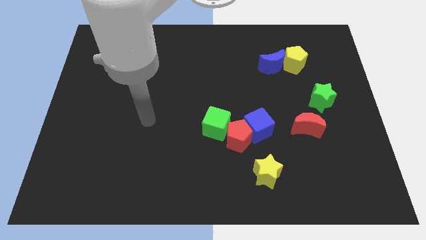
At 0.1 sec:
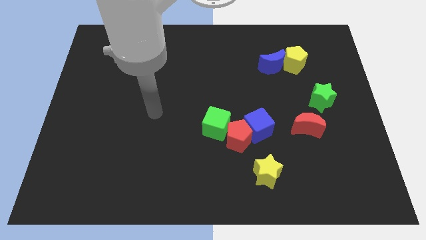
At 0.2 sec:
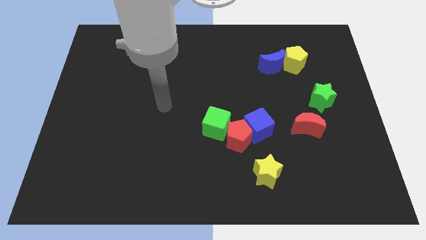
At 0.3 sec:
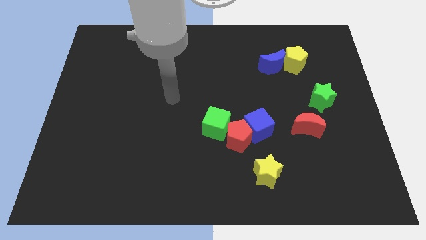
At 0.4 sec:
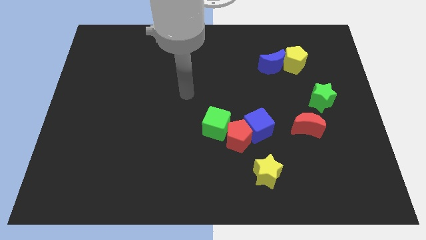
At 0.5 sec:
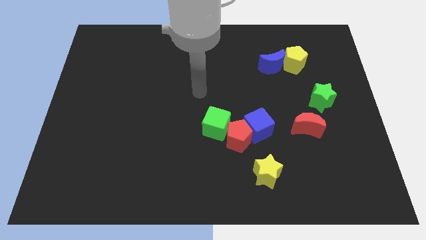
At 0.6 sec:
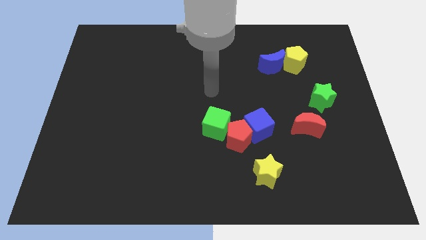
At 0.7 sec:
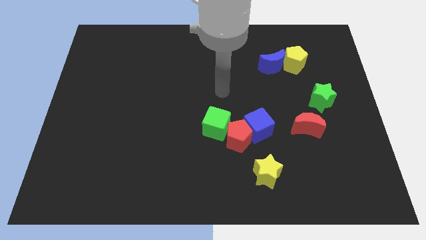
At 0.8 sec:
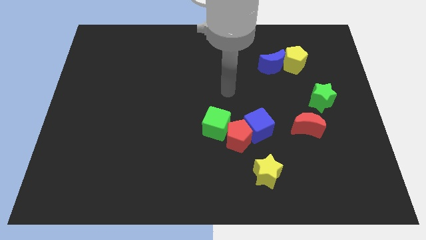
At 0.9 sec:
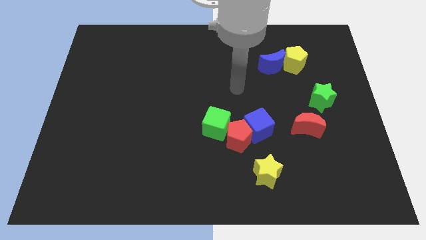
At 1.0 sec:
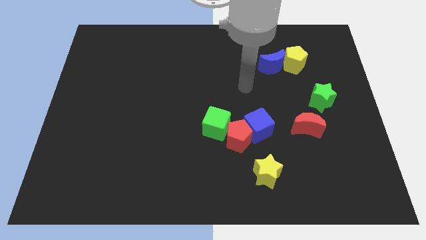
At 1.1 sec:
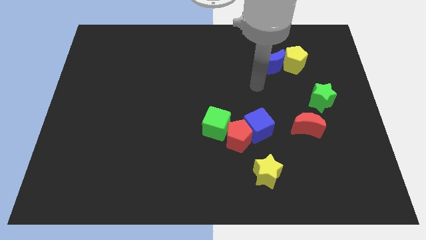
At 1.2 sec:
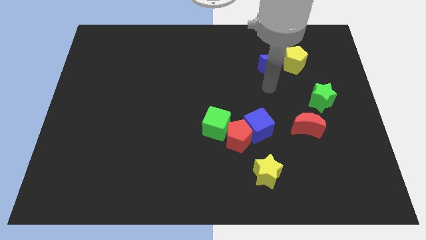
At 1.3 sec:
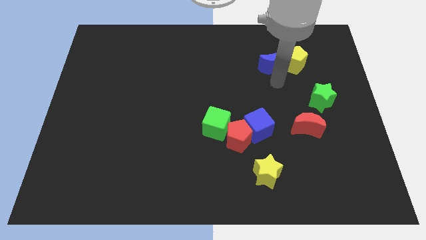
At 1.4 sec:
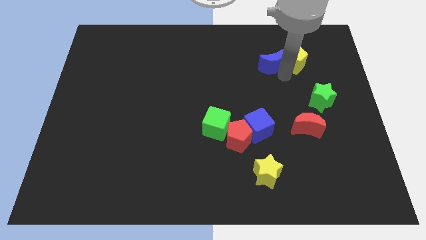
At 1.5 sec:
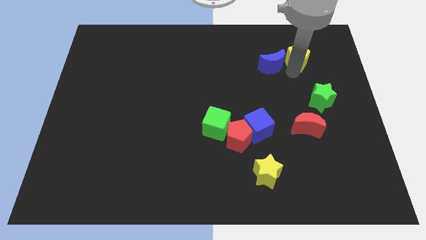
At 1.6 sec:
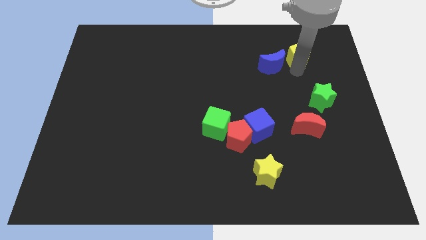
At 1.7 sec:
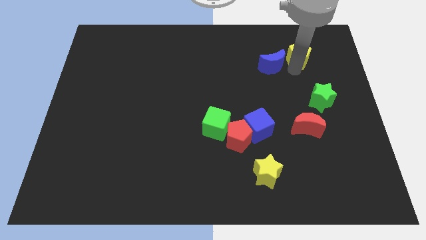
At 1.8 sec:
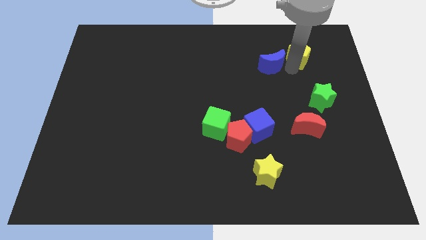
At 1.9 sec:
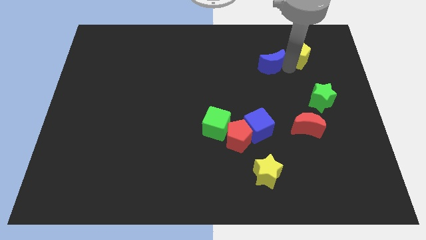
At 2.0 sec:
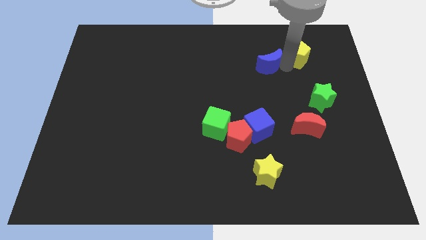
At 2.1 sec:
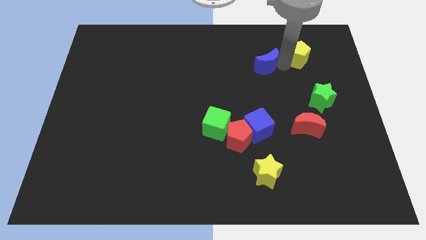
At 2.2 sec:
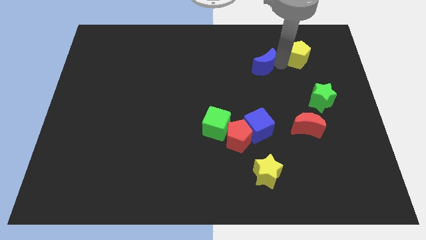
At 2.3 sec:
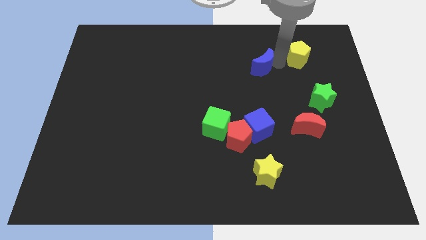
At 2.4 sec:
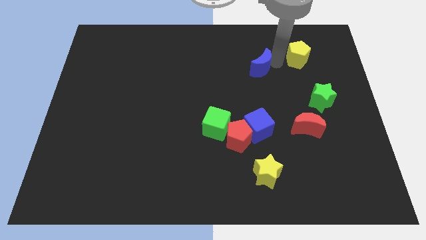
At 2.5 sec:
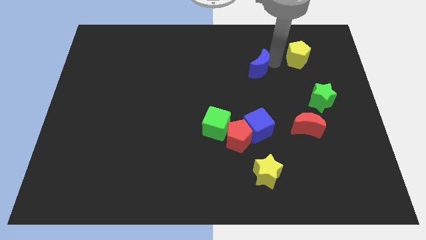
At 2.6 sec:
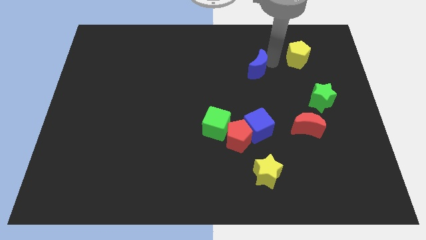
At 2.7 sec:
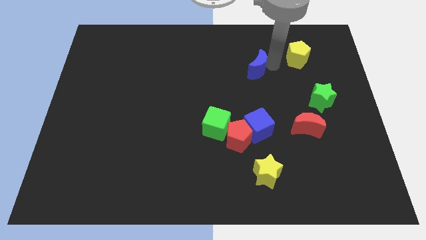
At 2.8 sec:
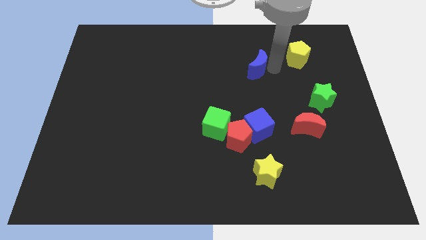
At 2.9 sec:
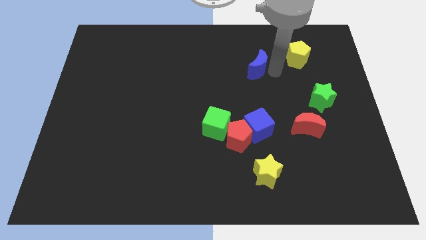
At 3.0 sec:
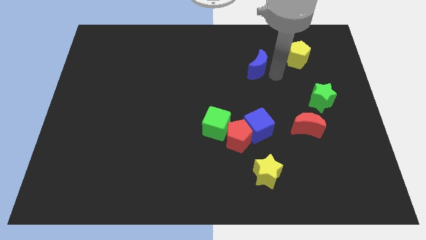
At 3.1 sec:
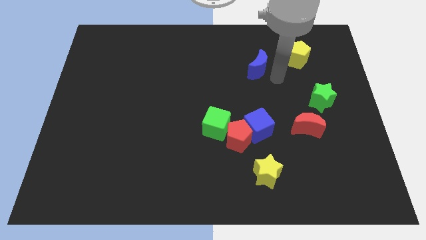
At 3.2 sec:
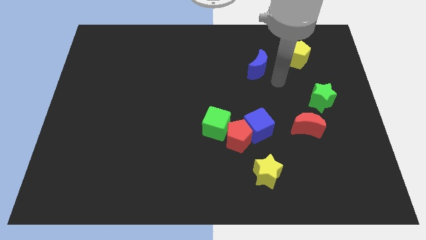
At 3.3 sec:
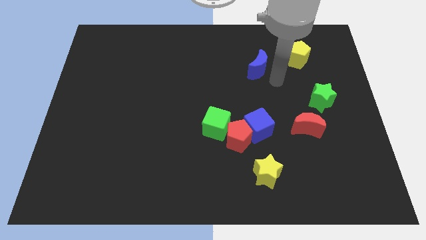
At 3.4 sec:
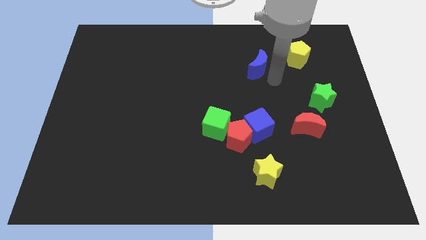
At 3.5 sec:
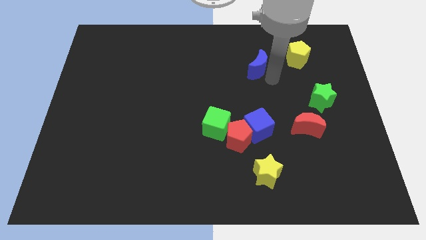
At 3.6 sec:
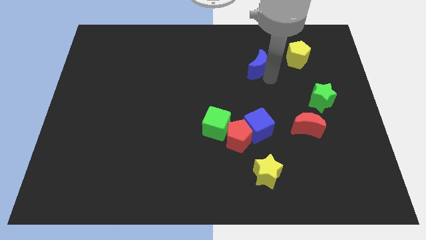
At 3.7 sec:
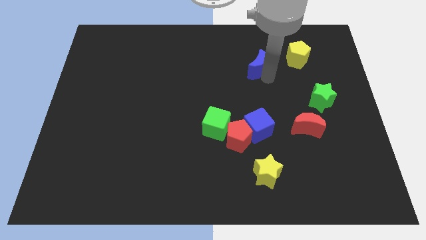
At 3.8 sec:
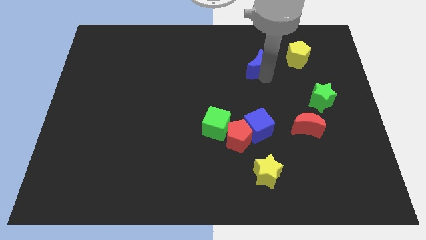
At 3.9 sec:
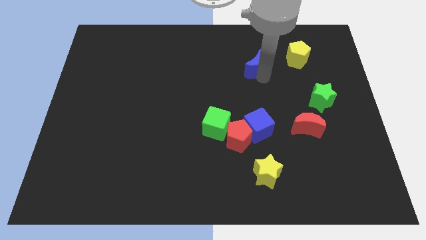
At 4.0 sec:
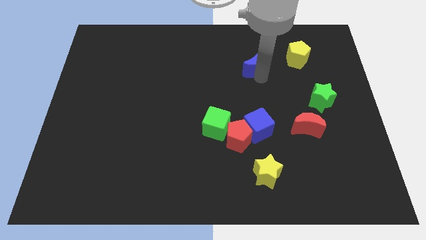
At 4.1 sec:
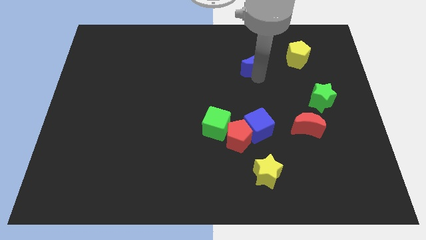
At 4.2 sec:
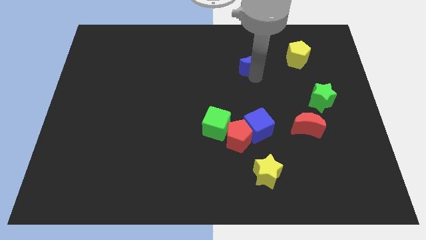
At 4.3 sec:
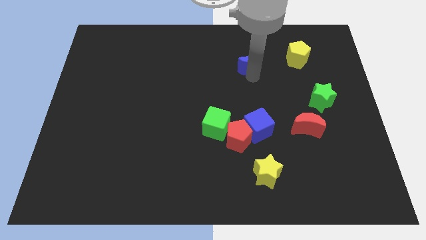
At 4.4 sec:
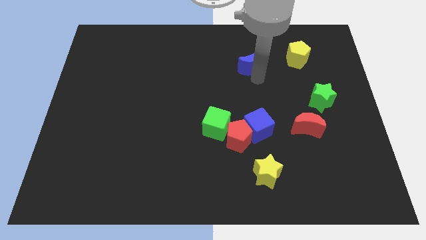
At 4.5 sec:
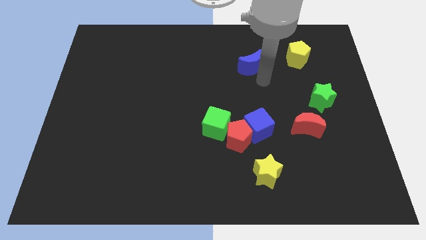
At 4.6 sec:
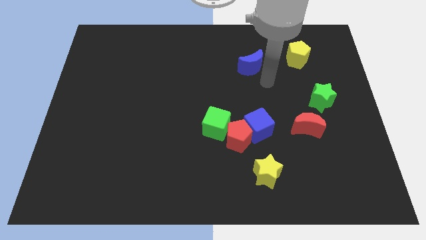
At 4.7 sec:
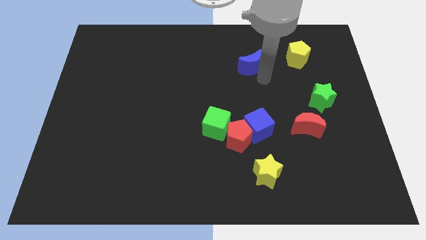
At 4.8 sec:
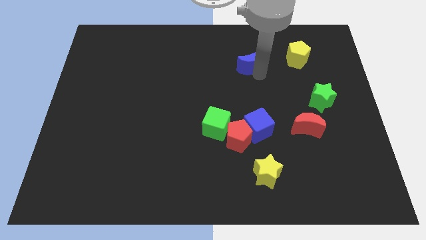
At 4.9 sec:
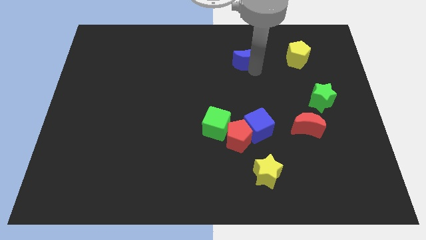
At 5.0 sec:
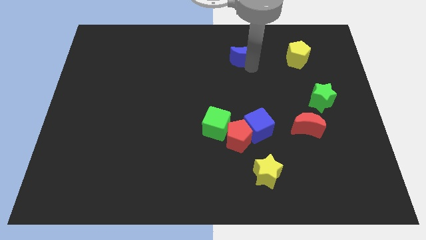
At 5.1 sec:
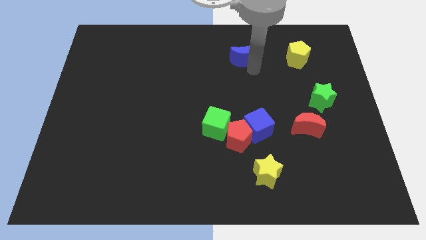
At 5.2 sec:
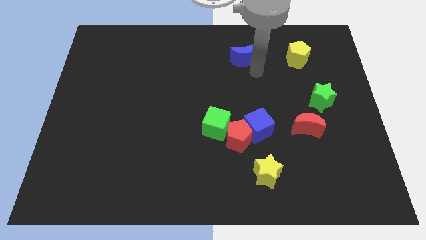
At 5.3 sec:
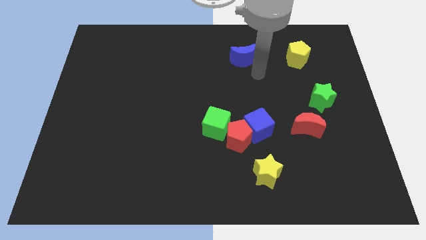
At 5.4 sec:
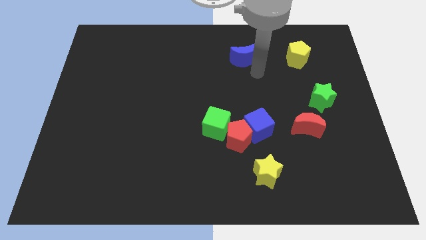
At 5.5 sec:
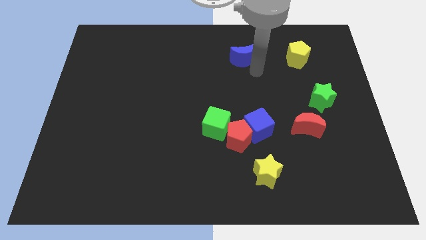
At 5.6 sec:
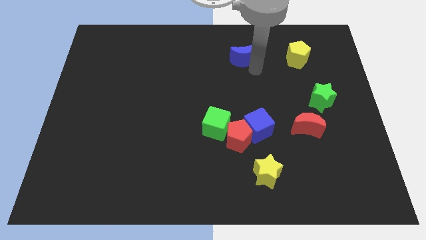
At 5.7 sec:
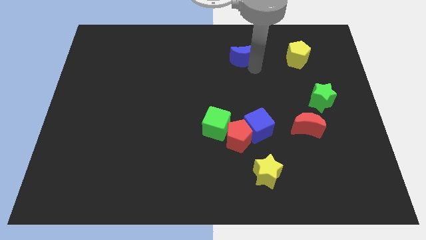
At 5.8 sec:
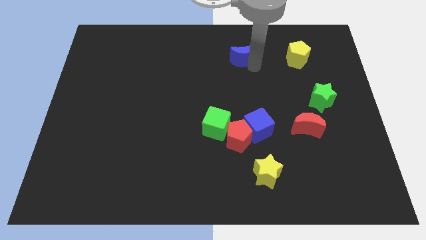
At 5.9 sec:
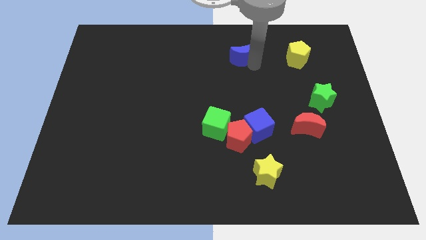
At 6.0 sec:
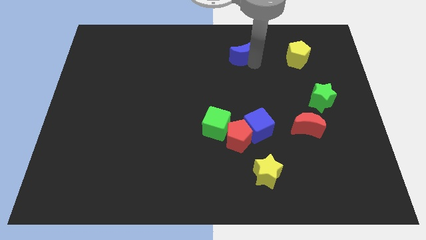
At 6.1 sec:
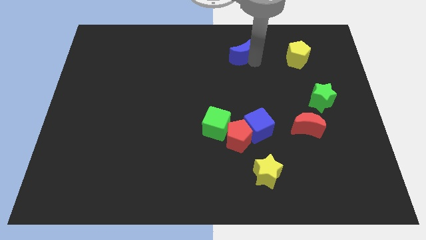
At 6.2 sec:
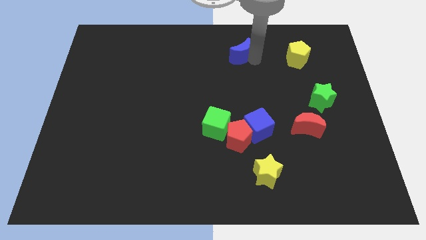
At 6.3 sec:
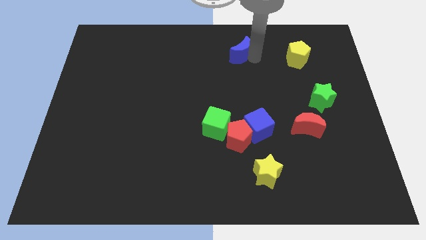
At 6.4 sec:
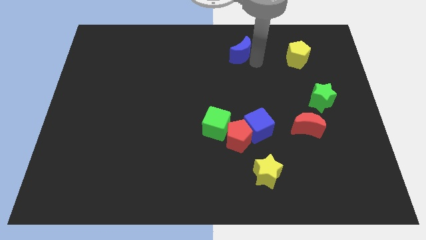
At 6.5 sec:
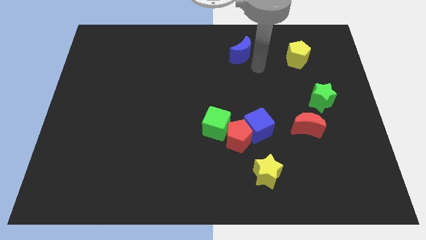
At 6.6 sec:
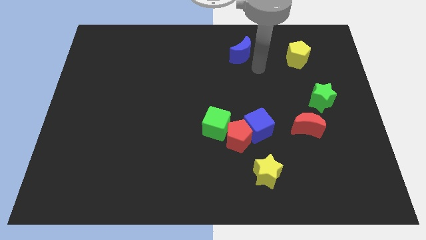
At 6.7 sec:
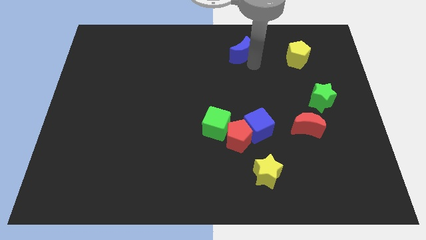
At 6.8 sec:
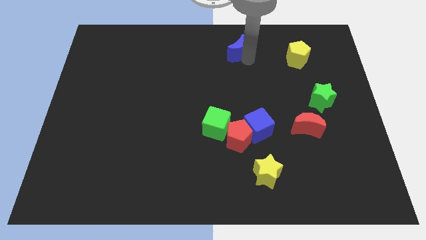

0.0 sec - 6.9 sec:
push the blue moon to the towards your base

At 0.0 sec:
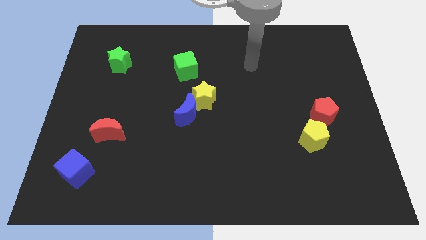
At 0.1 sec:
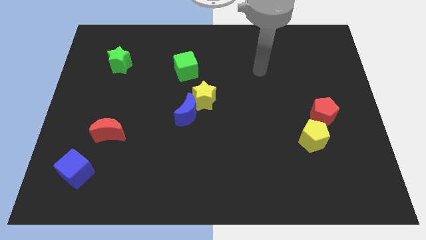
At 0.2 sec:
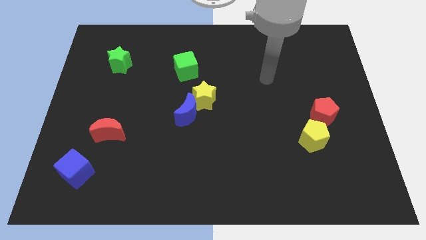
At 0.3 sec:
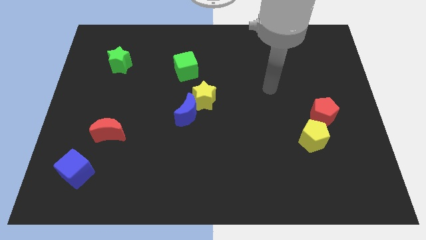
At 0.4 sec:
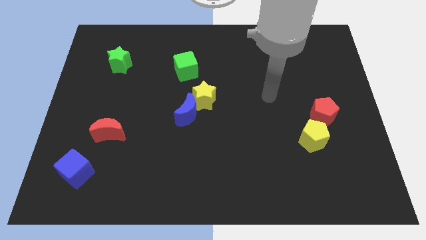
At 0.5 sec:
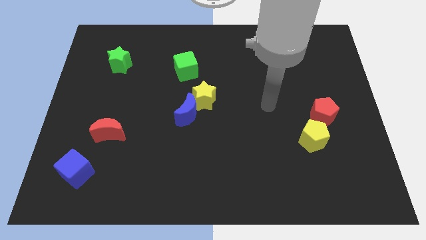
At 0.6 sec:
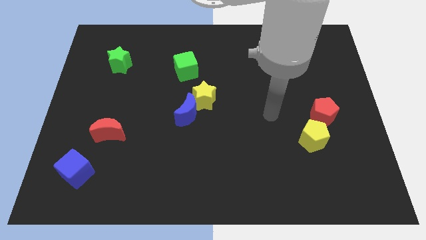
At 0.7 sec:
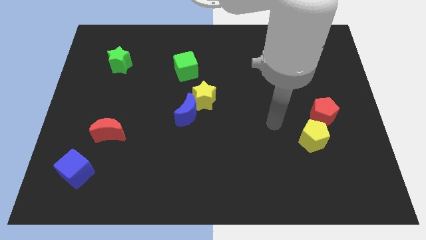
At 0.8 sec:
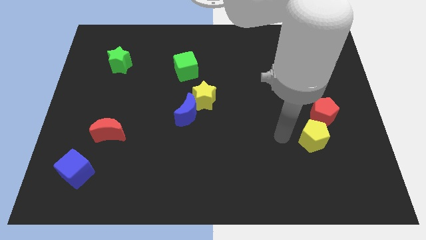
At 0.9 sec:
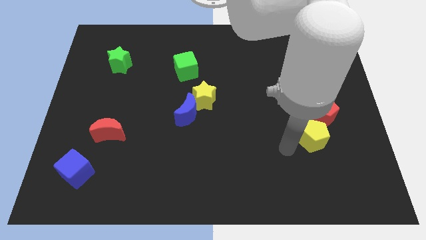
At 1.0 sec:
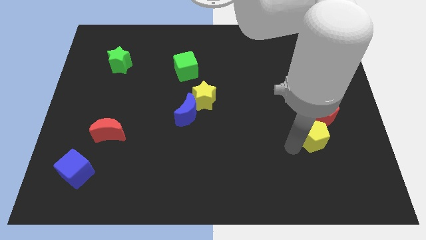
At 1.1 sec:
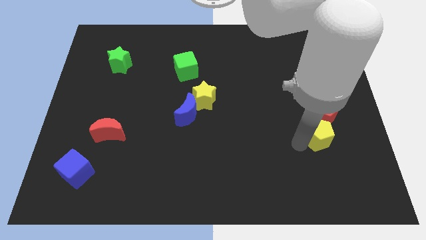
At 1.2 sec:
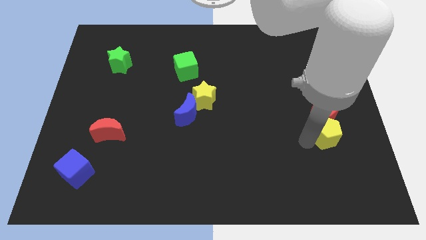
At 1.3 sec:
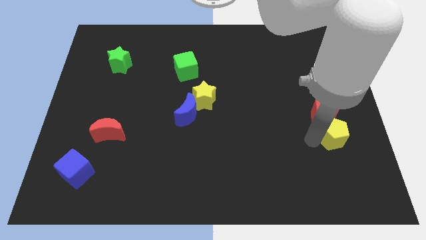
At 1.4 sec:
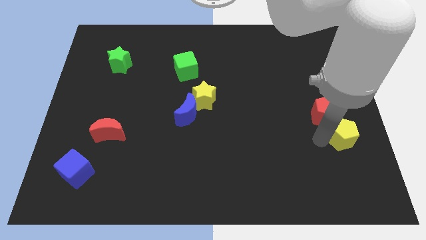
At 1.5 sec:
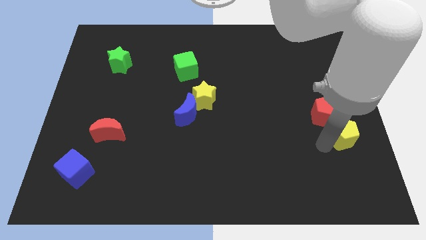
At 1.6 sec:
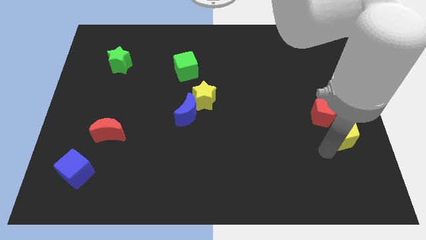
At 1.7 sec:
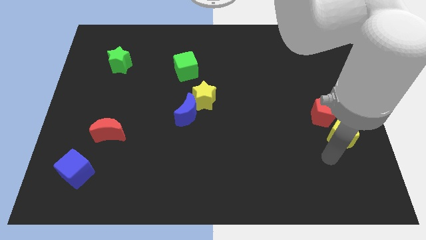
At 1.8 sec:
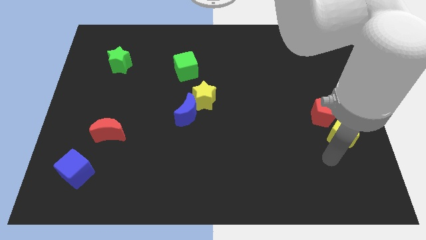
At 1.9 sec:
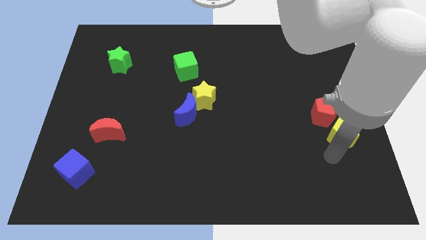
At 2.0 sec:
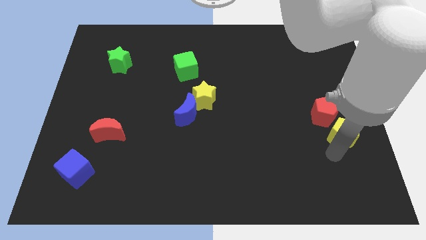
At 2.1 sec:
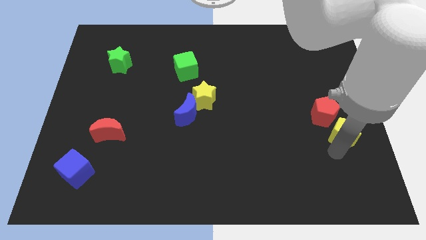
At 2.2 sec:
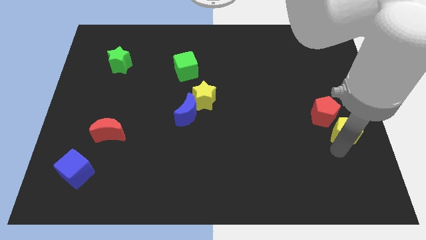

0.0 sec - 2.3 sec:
put the yellow pentagon to the right side of the board
